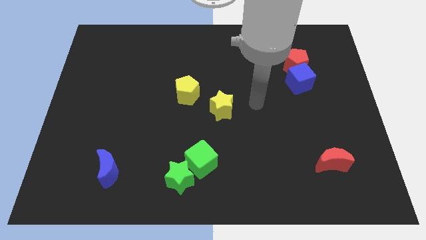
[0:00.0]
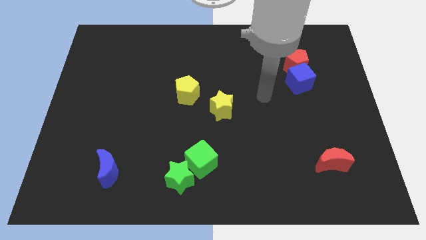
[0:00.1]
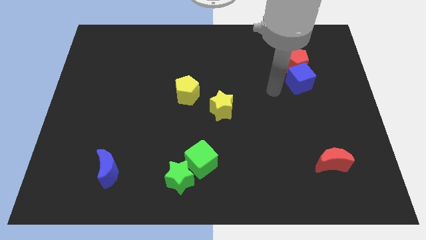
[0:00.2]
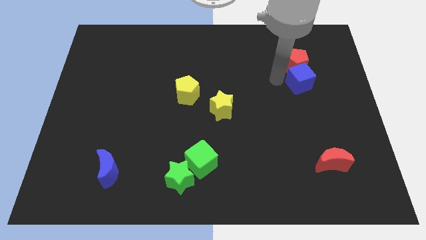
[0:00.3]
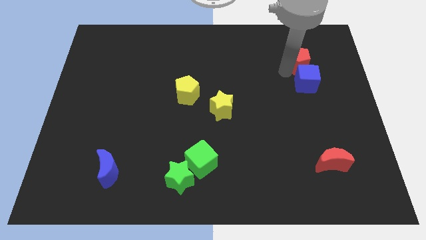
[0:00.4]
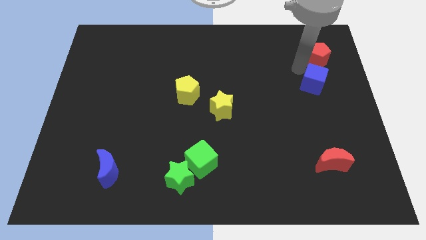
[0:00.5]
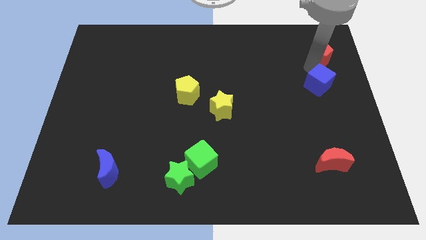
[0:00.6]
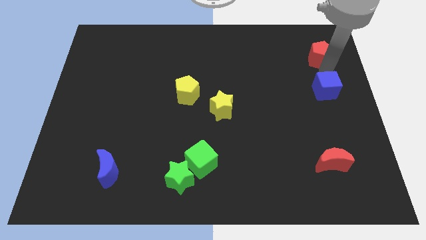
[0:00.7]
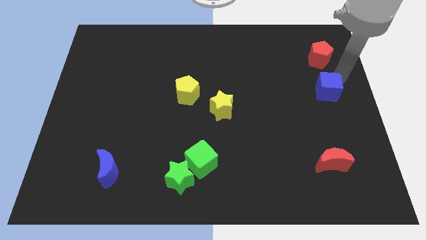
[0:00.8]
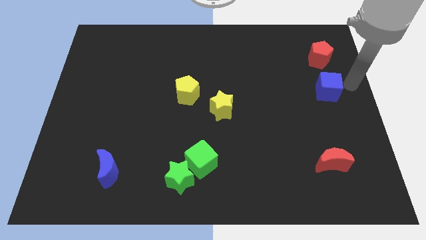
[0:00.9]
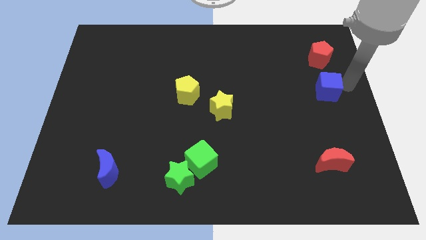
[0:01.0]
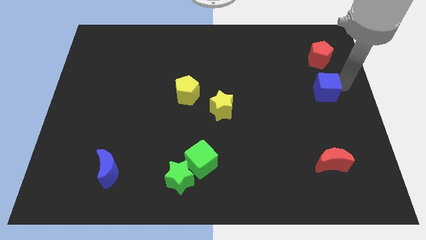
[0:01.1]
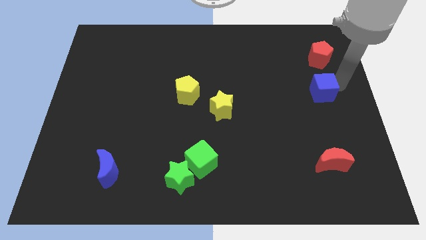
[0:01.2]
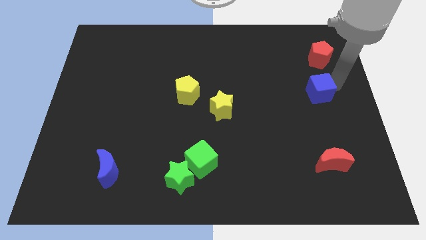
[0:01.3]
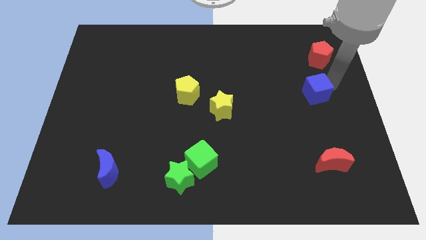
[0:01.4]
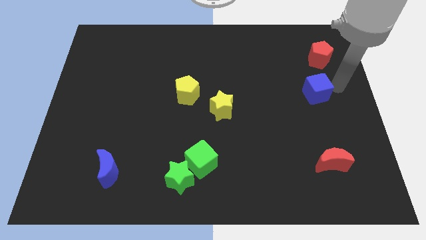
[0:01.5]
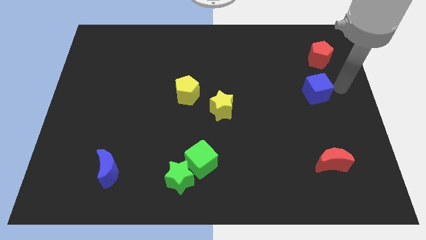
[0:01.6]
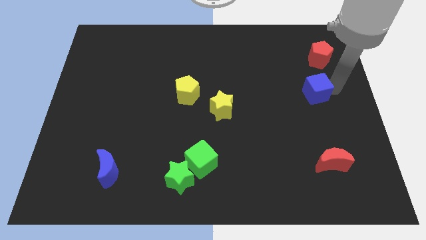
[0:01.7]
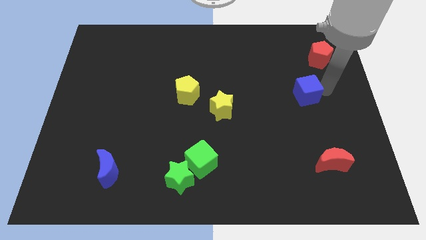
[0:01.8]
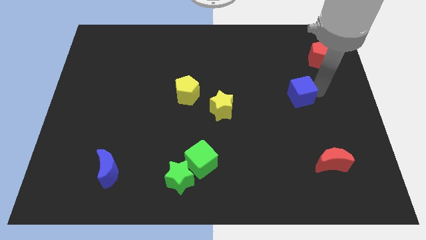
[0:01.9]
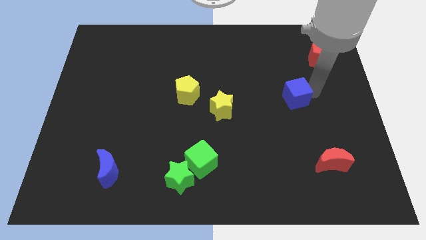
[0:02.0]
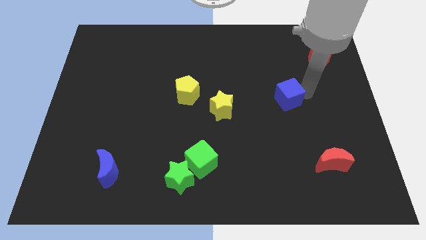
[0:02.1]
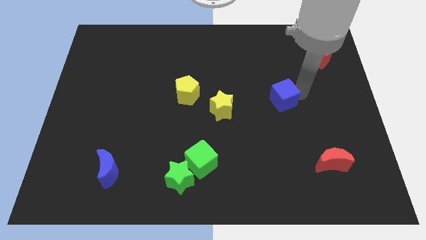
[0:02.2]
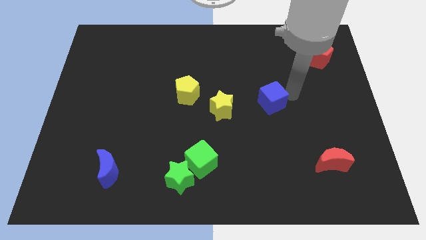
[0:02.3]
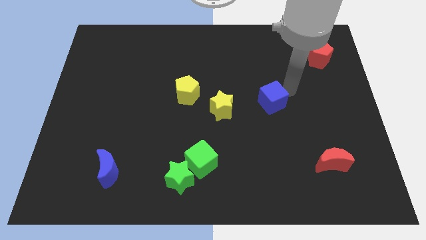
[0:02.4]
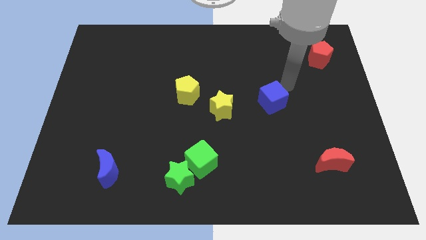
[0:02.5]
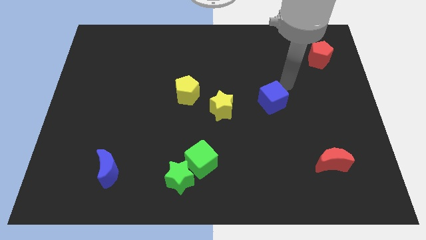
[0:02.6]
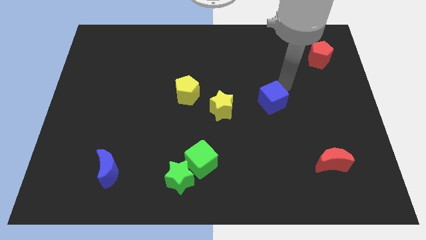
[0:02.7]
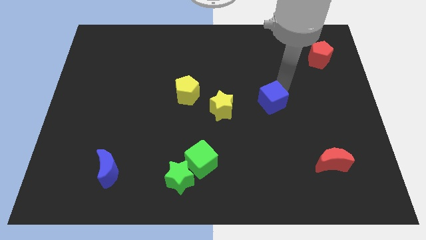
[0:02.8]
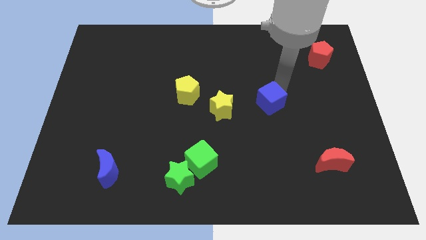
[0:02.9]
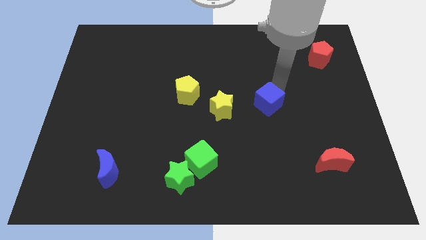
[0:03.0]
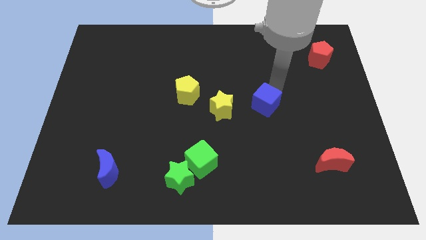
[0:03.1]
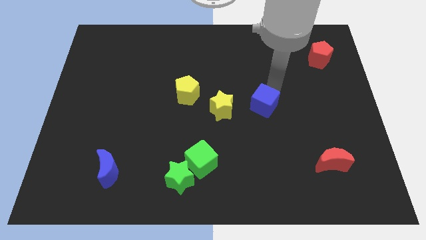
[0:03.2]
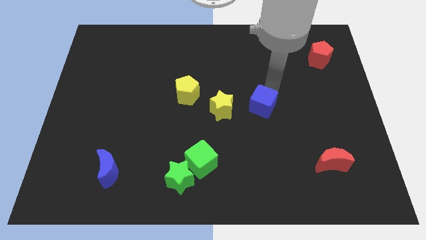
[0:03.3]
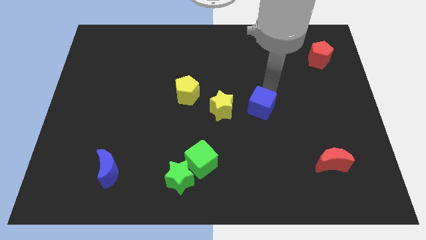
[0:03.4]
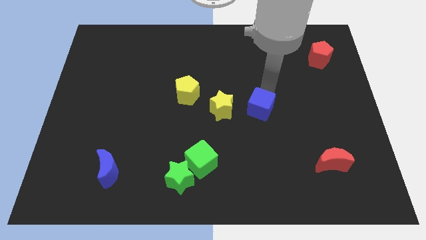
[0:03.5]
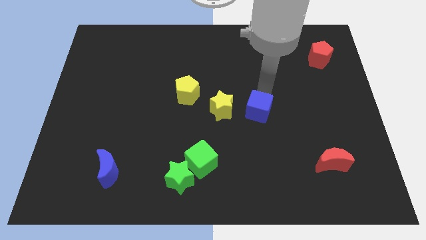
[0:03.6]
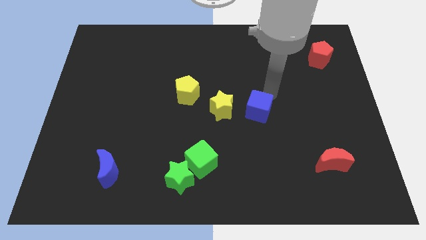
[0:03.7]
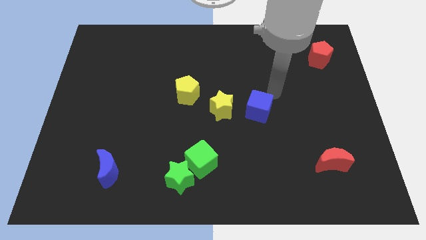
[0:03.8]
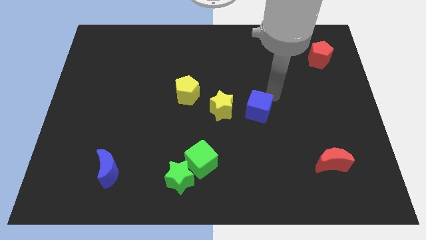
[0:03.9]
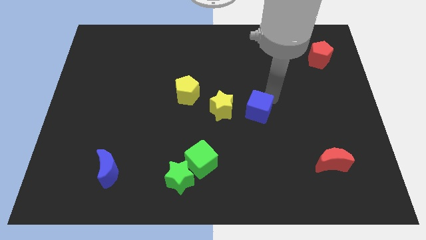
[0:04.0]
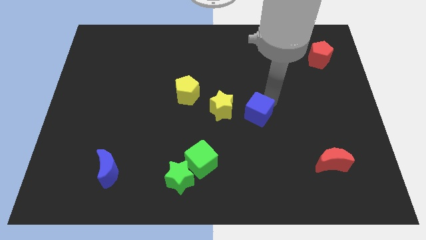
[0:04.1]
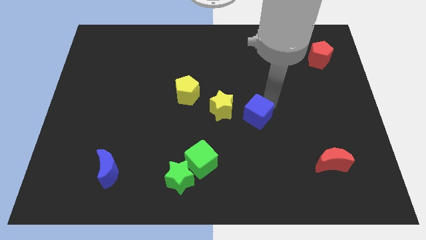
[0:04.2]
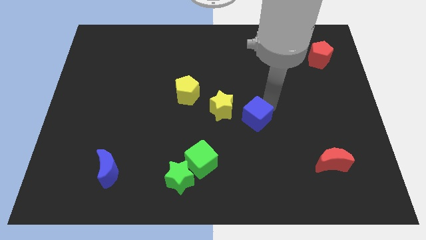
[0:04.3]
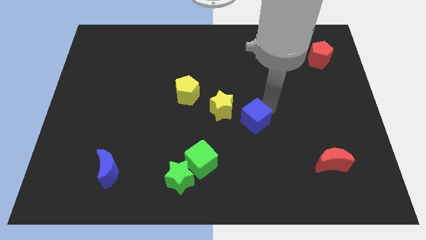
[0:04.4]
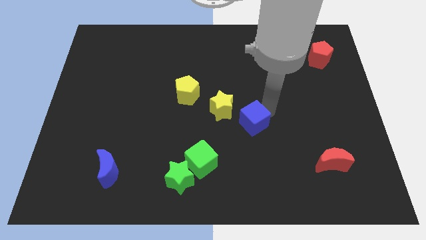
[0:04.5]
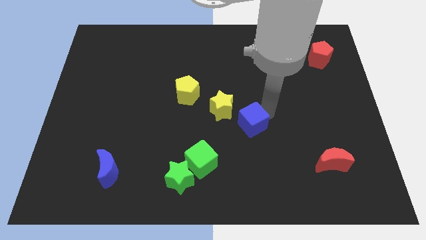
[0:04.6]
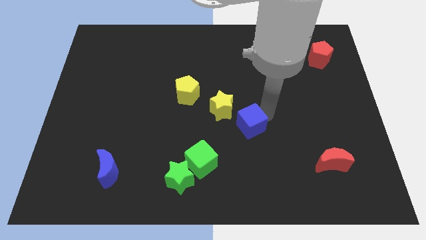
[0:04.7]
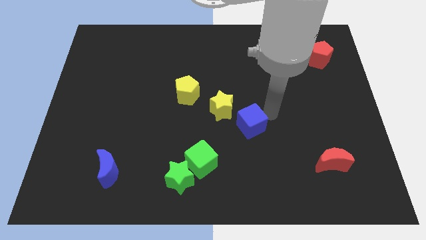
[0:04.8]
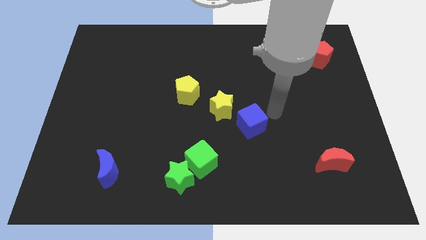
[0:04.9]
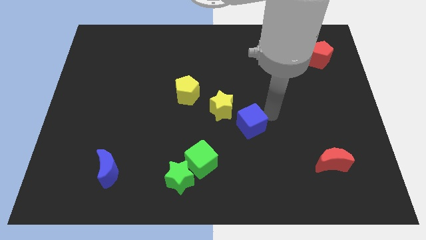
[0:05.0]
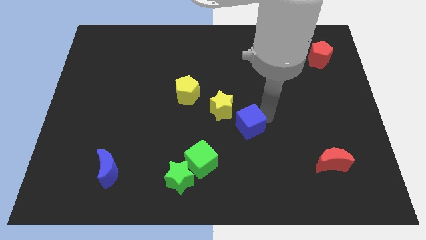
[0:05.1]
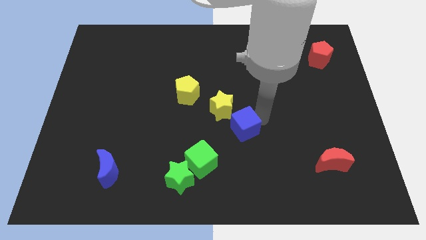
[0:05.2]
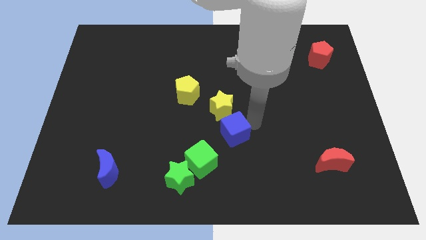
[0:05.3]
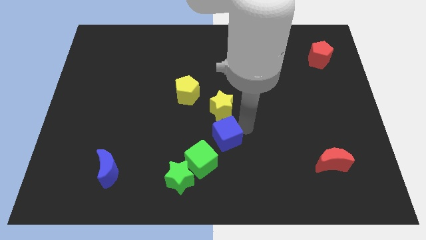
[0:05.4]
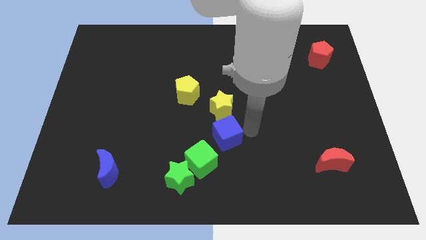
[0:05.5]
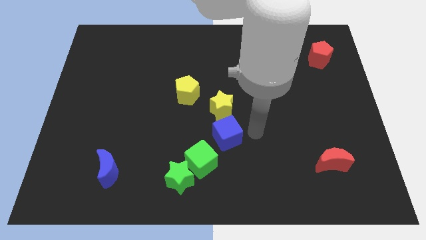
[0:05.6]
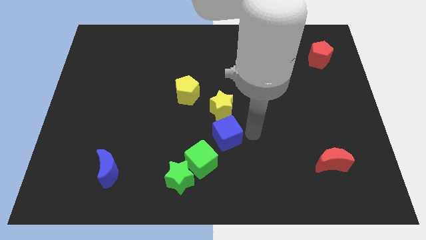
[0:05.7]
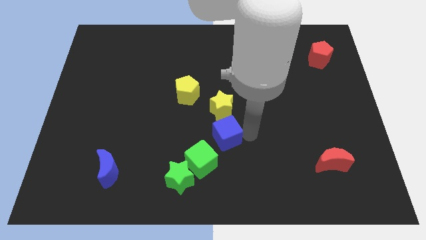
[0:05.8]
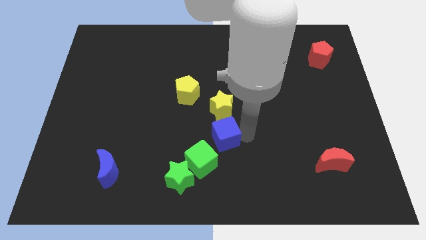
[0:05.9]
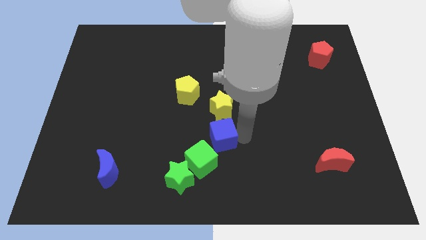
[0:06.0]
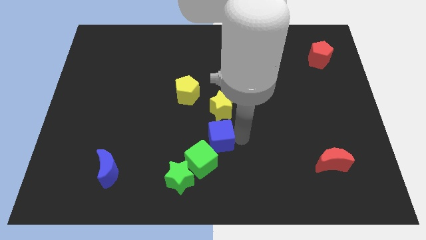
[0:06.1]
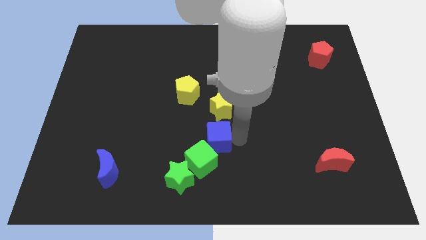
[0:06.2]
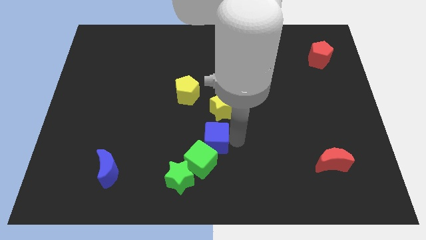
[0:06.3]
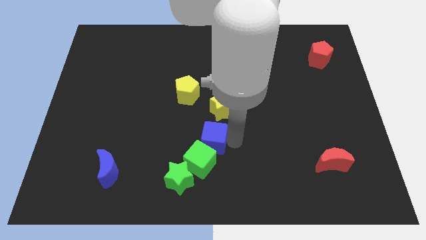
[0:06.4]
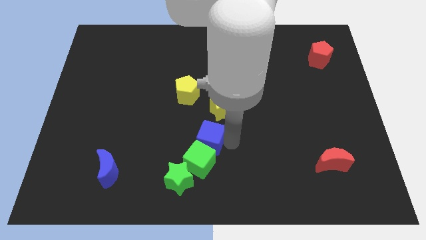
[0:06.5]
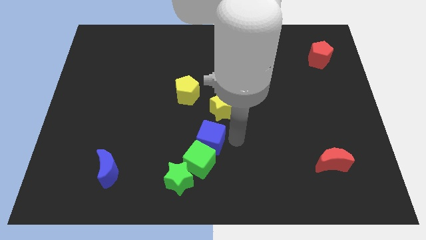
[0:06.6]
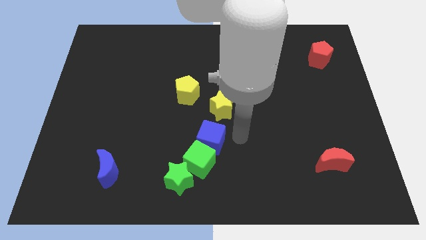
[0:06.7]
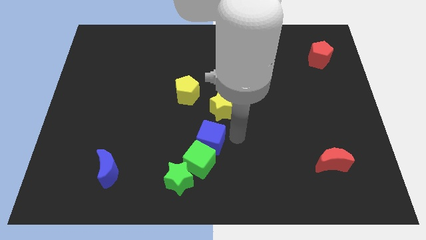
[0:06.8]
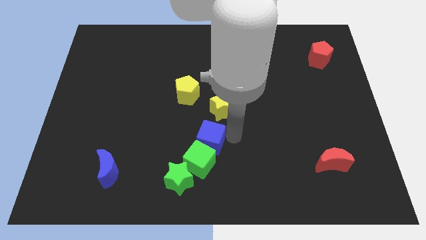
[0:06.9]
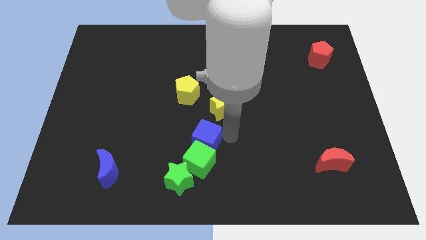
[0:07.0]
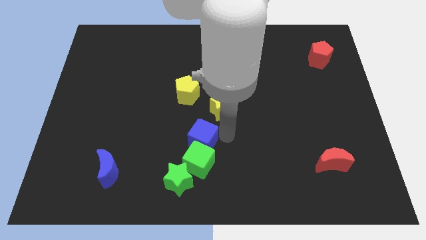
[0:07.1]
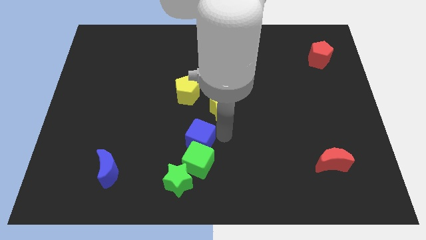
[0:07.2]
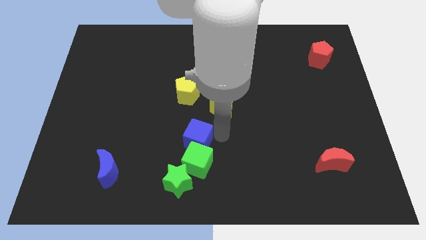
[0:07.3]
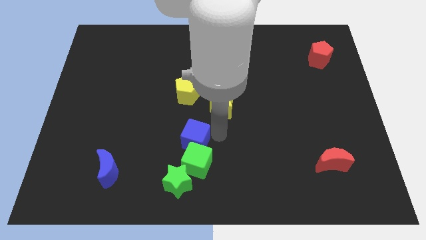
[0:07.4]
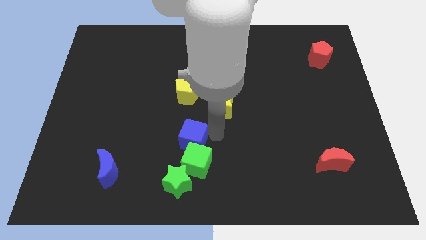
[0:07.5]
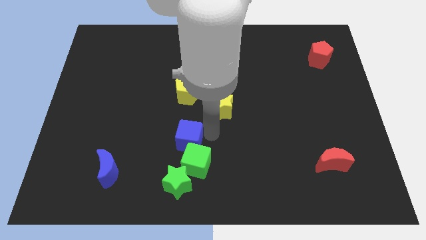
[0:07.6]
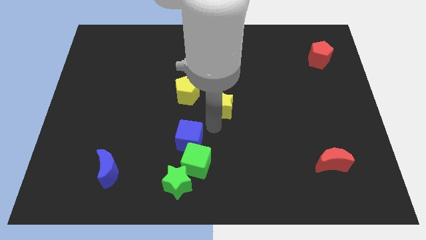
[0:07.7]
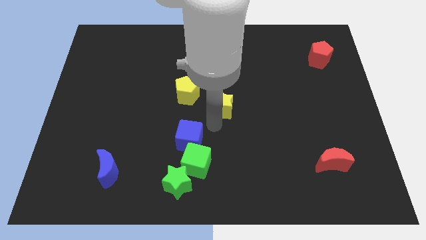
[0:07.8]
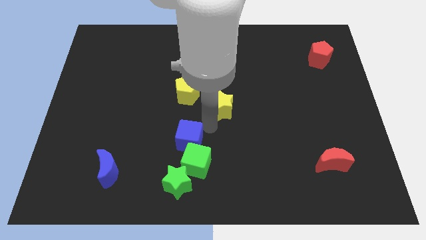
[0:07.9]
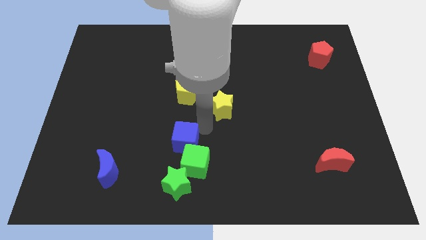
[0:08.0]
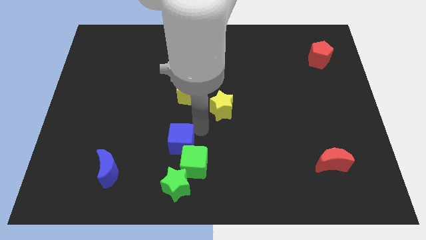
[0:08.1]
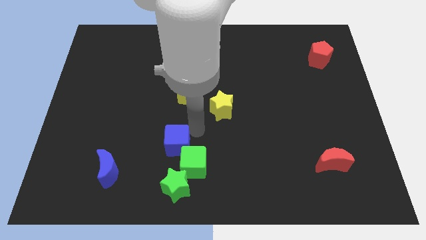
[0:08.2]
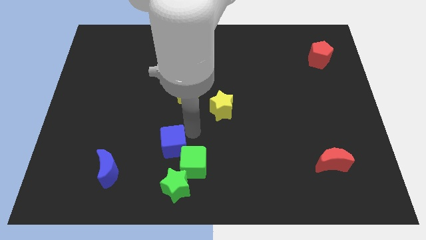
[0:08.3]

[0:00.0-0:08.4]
put the blue cube to the left of the green cube
